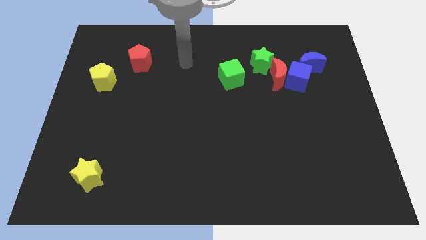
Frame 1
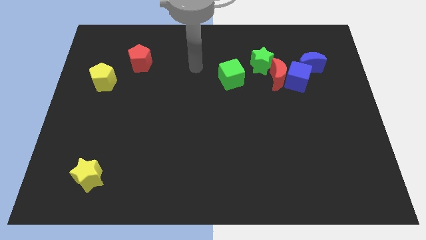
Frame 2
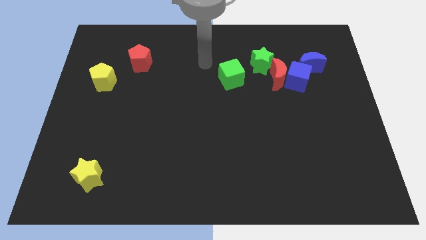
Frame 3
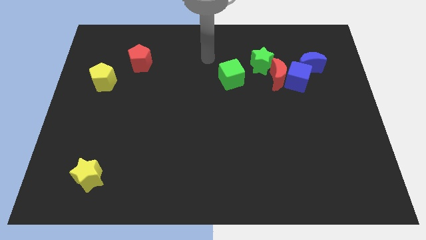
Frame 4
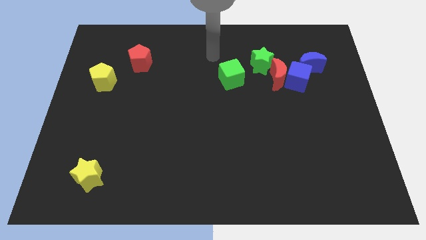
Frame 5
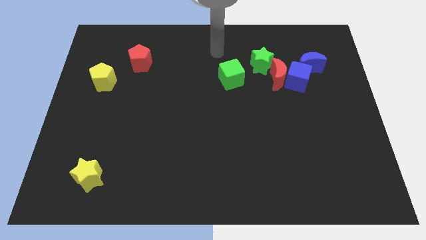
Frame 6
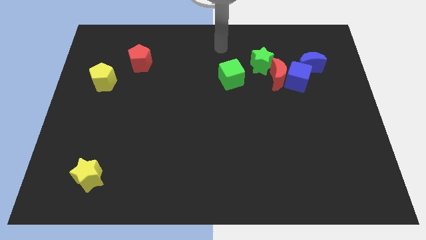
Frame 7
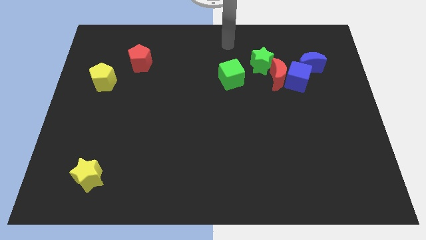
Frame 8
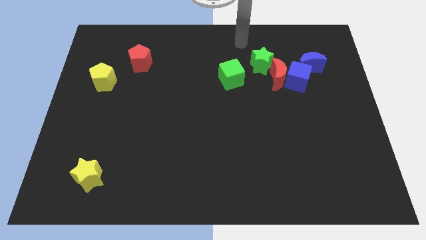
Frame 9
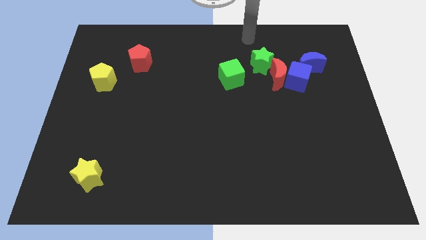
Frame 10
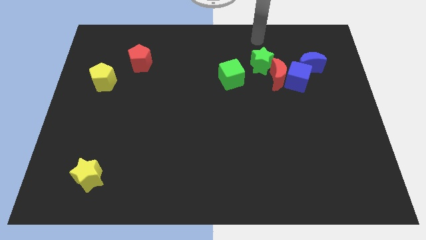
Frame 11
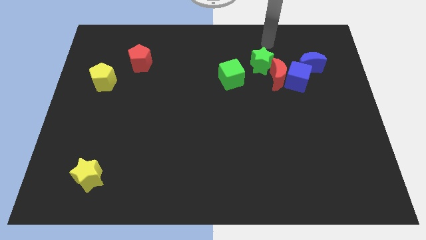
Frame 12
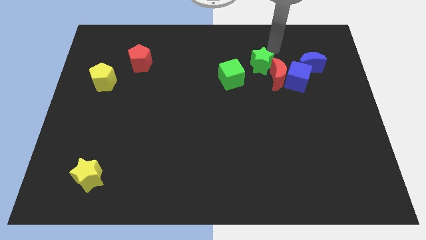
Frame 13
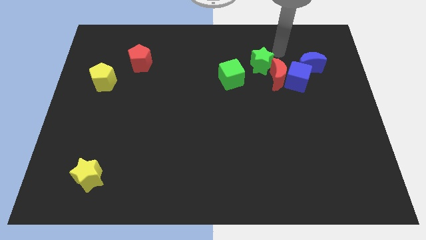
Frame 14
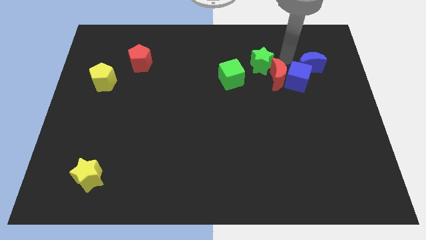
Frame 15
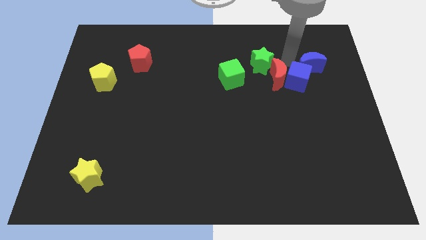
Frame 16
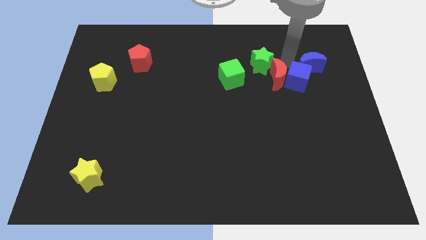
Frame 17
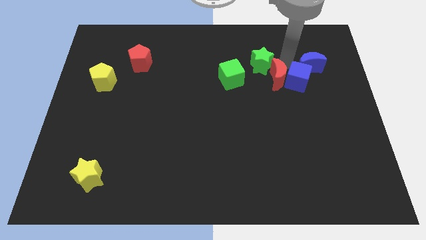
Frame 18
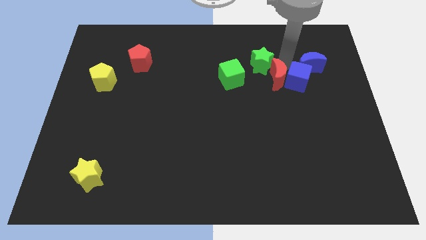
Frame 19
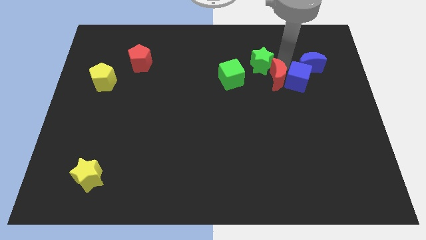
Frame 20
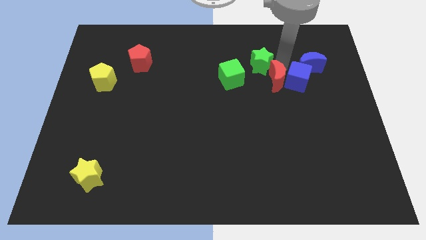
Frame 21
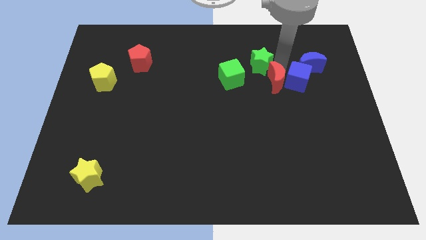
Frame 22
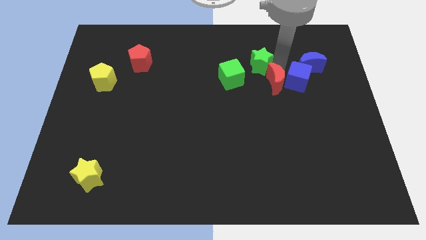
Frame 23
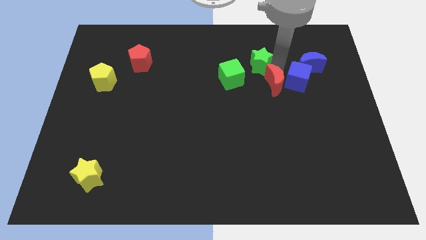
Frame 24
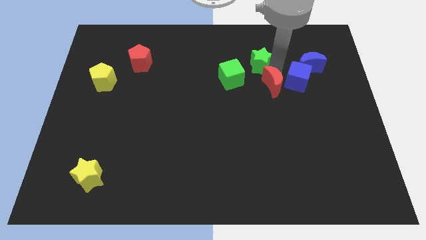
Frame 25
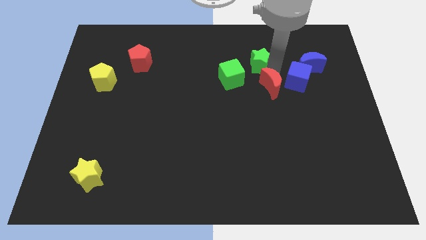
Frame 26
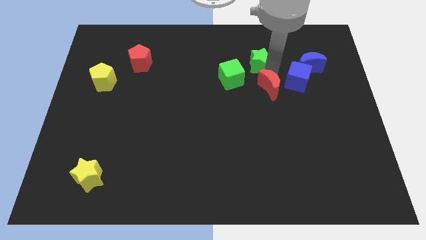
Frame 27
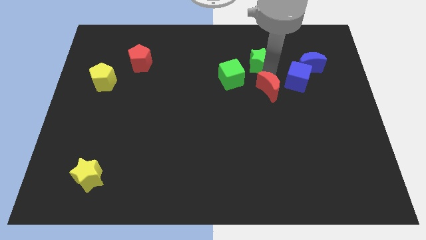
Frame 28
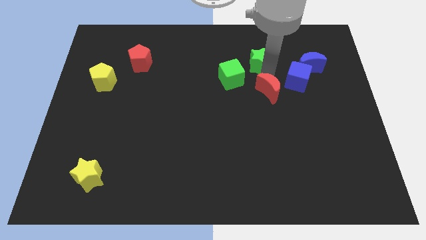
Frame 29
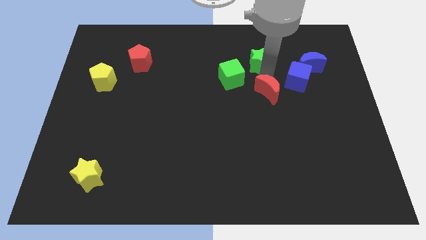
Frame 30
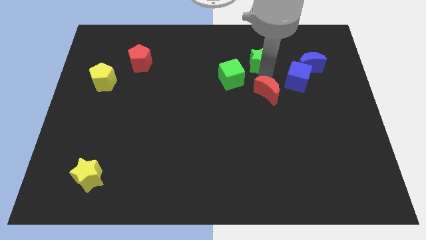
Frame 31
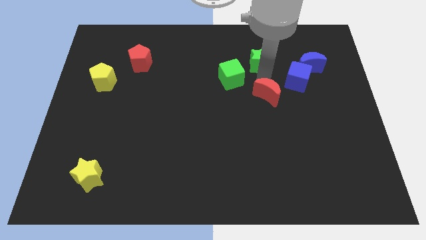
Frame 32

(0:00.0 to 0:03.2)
pull the red moon apart from the blue cube, green star, and blue moon

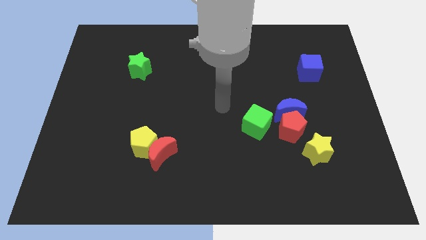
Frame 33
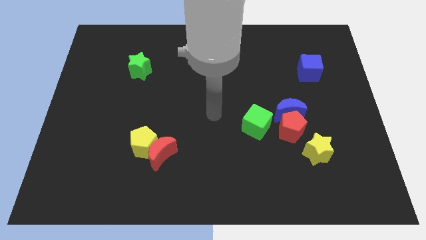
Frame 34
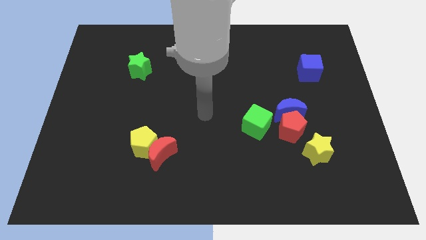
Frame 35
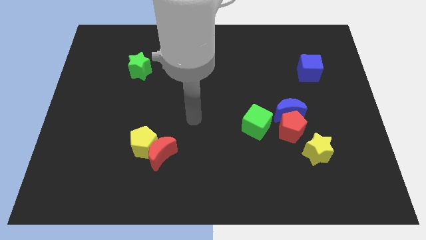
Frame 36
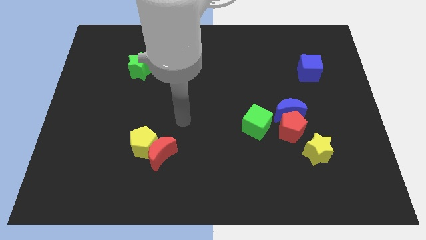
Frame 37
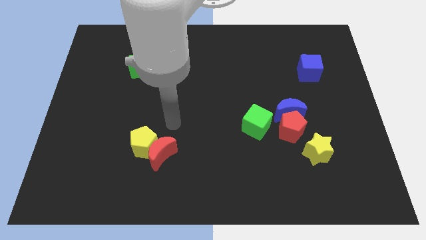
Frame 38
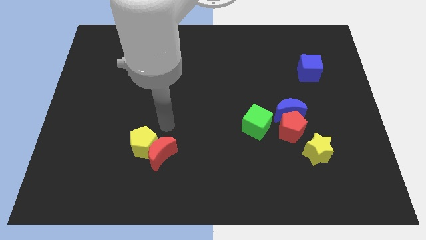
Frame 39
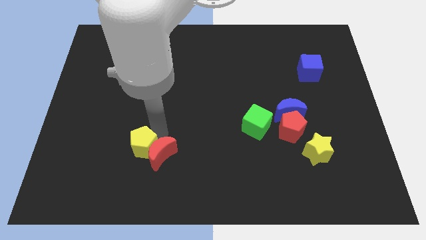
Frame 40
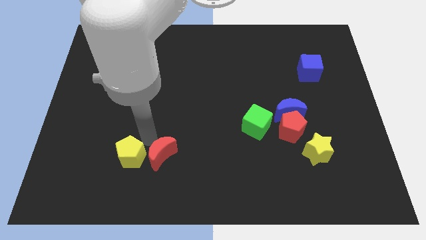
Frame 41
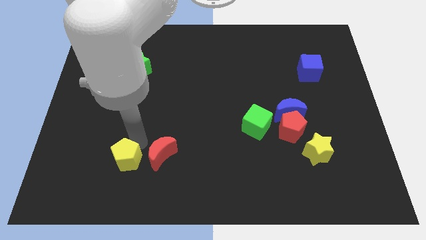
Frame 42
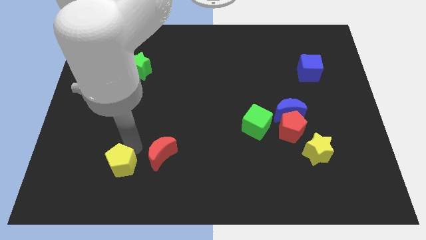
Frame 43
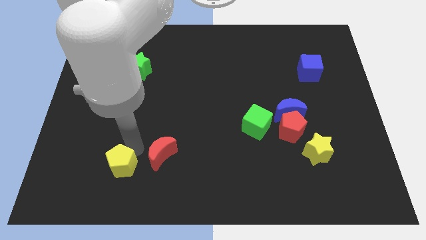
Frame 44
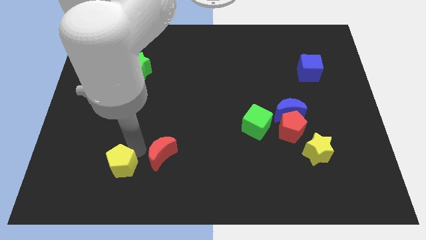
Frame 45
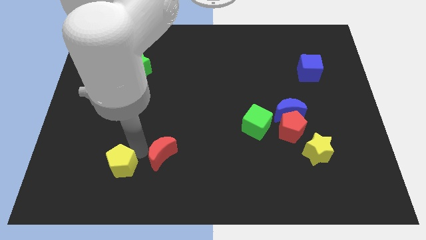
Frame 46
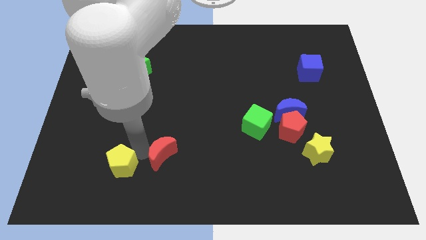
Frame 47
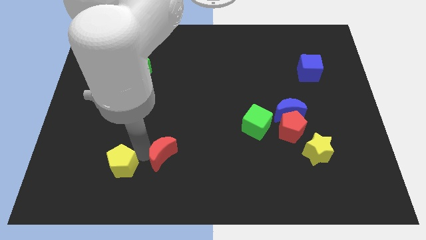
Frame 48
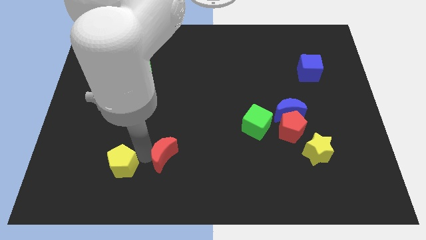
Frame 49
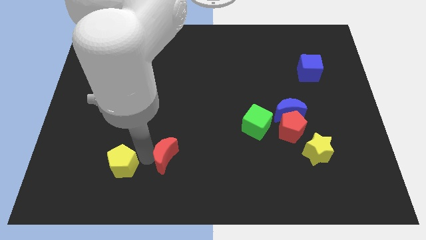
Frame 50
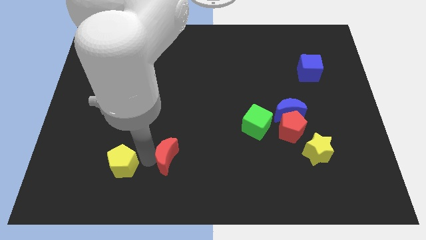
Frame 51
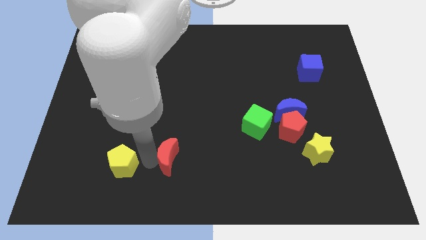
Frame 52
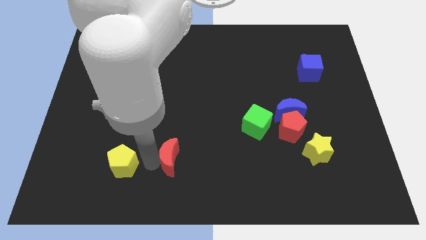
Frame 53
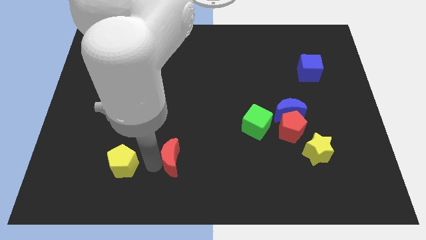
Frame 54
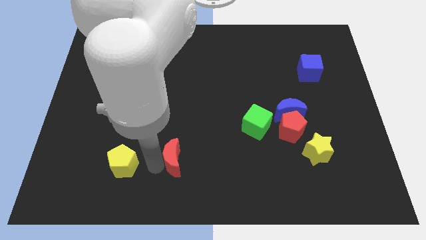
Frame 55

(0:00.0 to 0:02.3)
separate the red moon from the yellow pentagon

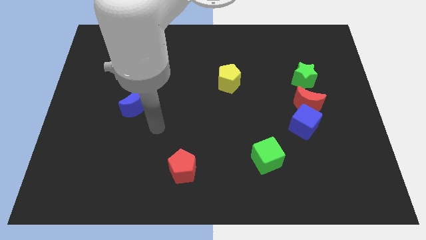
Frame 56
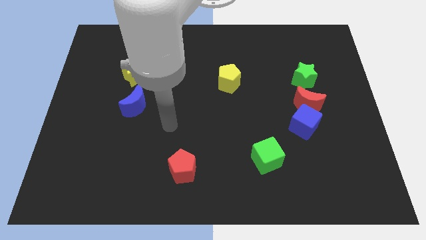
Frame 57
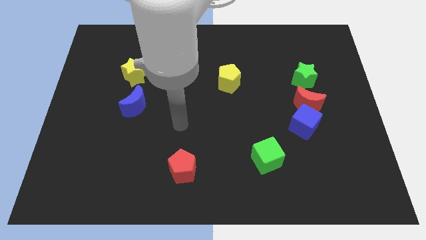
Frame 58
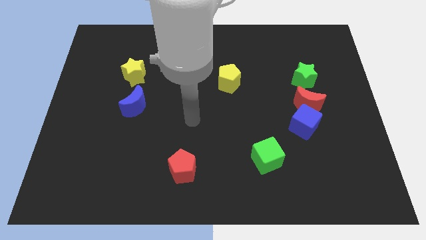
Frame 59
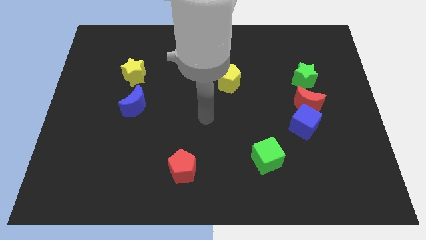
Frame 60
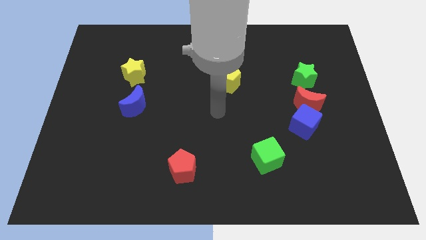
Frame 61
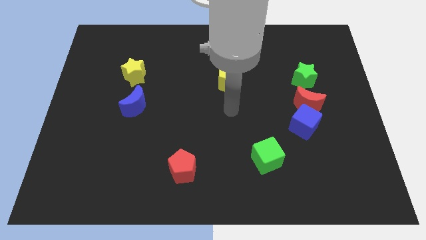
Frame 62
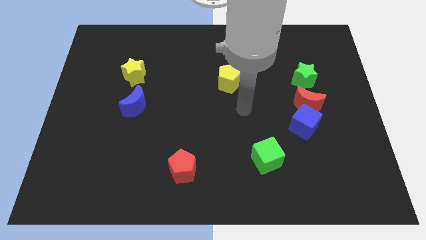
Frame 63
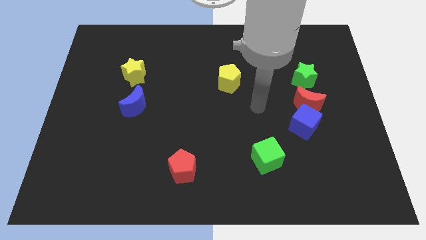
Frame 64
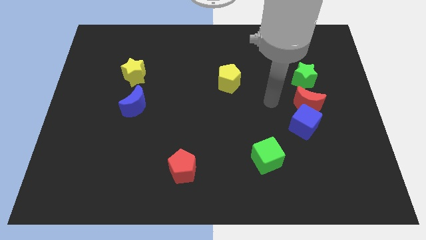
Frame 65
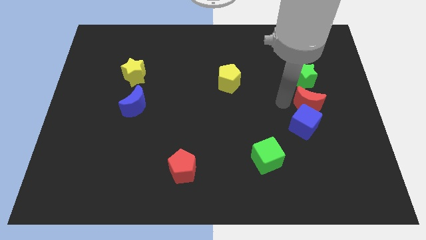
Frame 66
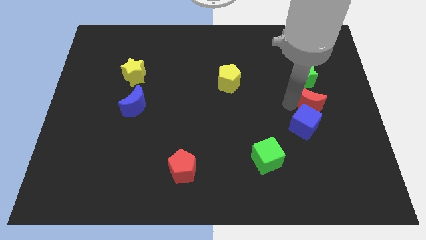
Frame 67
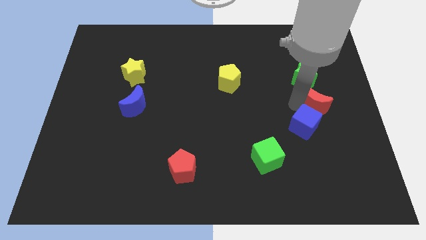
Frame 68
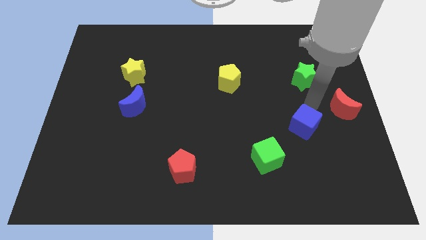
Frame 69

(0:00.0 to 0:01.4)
move the blue cube away from the red moon

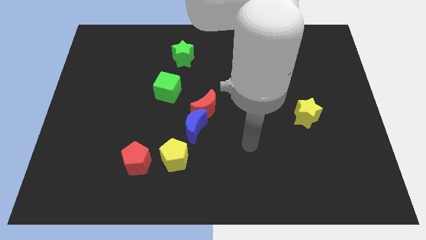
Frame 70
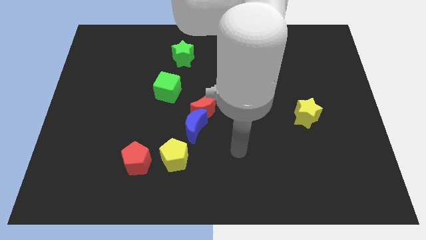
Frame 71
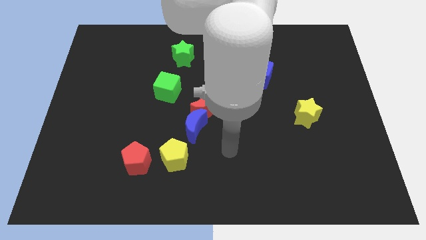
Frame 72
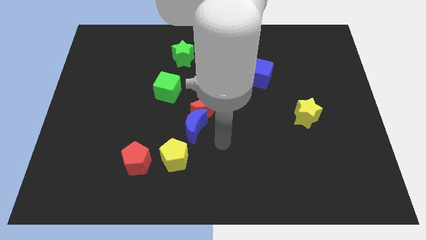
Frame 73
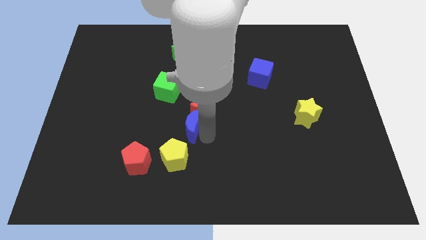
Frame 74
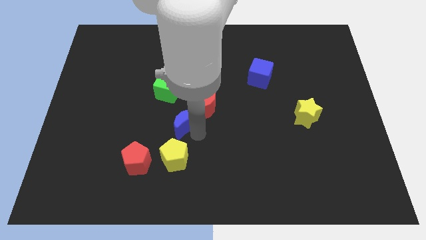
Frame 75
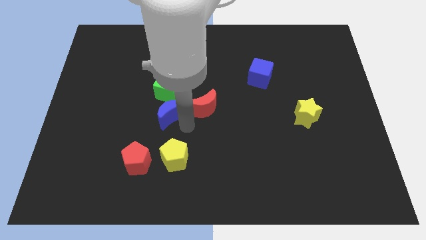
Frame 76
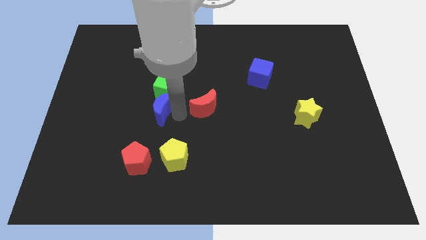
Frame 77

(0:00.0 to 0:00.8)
move the red moon away from the blue moon

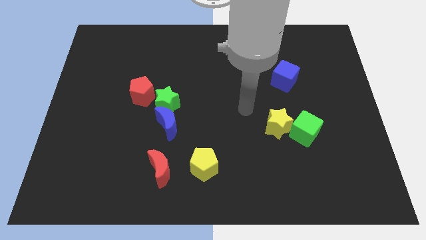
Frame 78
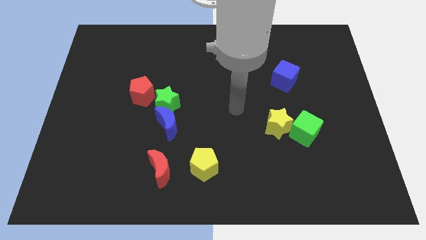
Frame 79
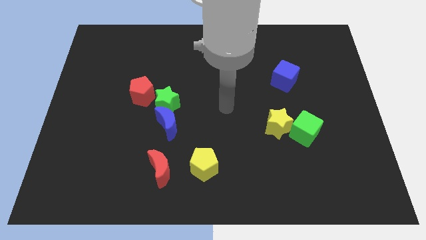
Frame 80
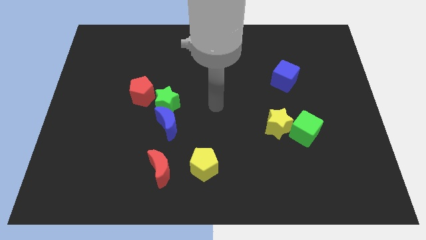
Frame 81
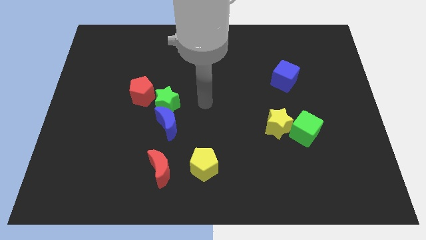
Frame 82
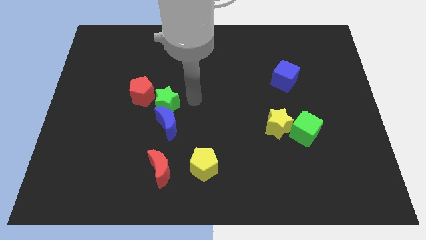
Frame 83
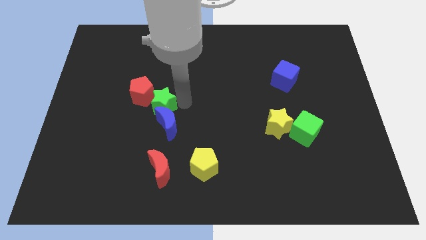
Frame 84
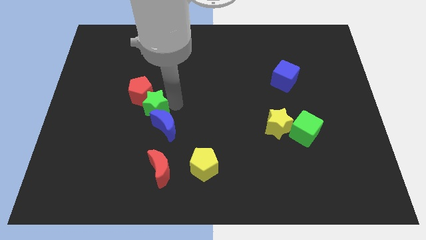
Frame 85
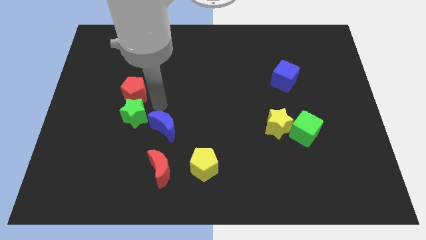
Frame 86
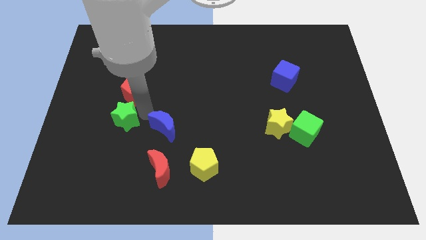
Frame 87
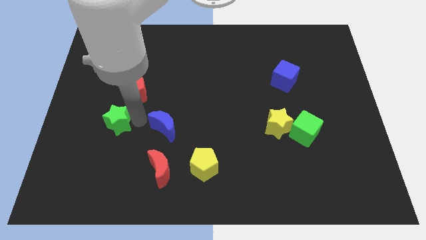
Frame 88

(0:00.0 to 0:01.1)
separate the blue moon from the green star

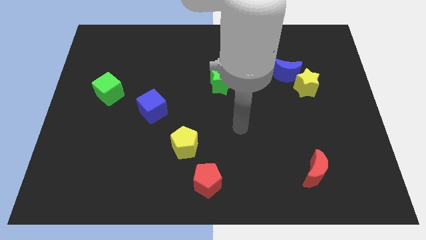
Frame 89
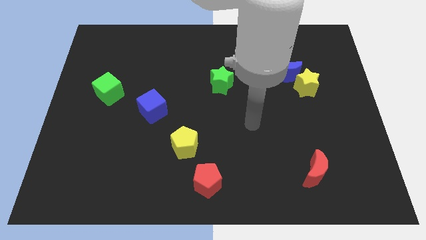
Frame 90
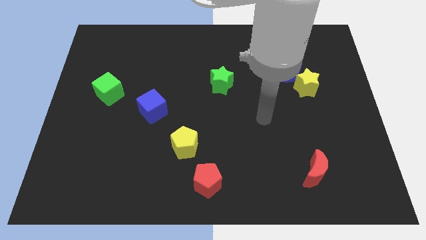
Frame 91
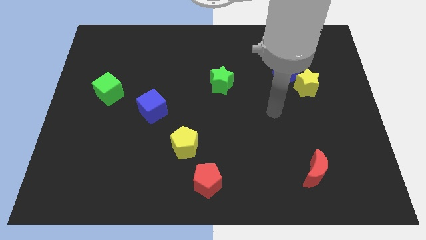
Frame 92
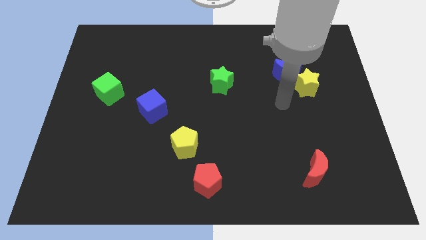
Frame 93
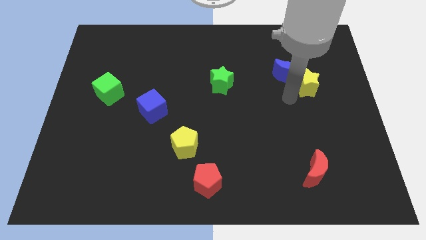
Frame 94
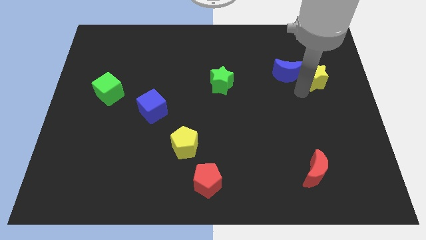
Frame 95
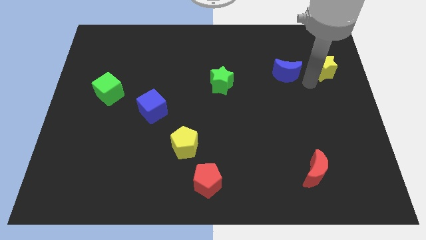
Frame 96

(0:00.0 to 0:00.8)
separate the blue moon from the yellow star
